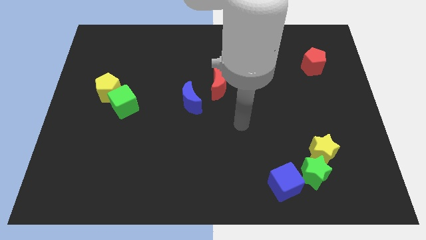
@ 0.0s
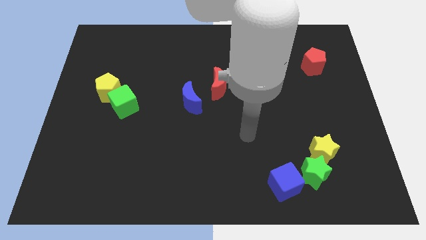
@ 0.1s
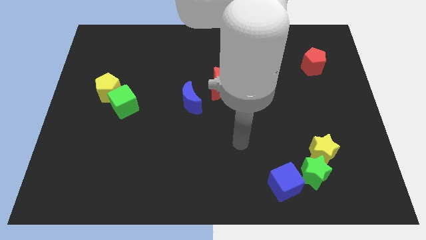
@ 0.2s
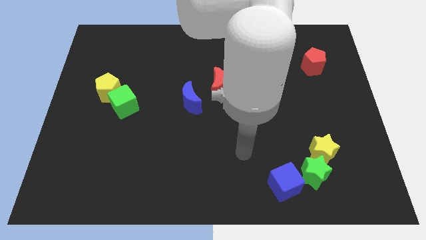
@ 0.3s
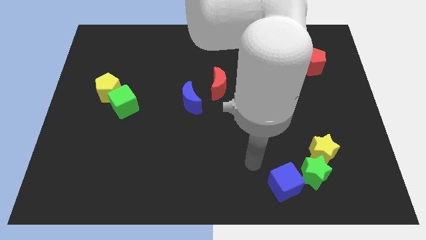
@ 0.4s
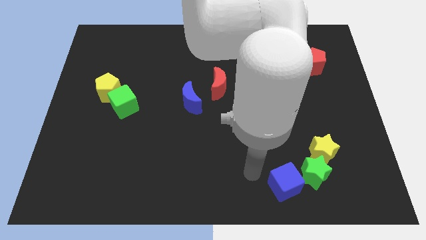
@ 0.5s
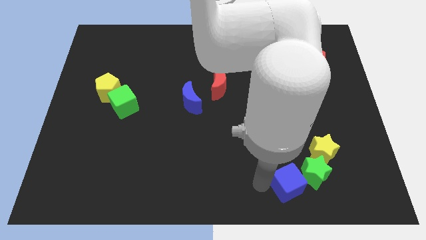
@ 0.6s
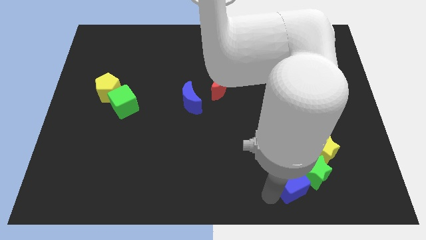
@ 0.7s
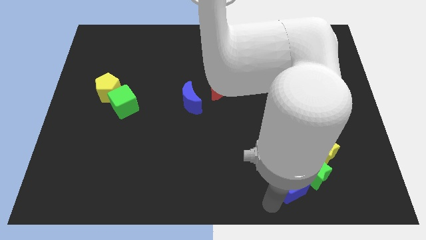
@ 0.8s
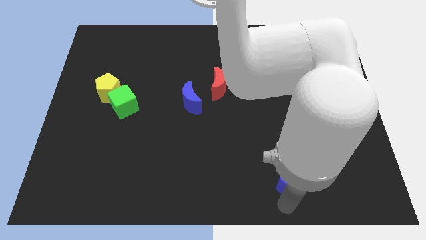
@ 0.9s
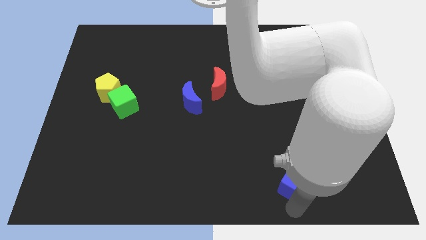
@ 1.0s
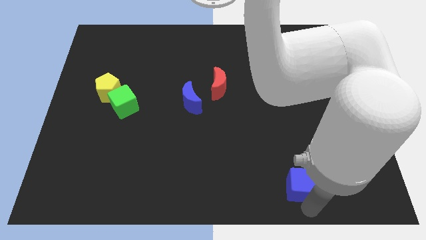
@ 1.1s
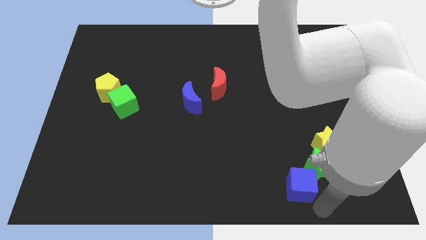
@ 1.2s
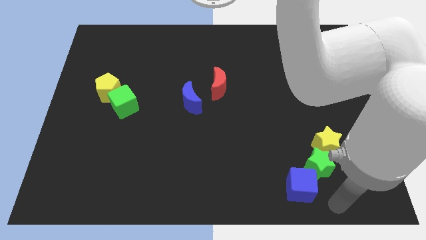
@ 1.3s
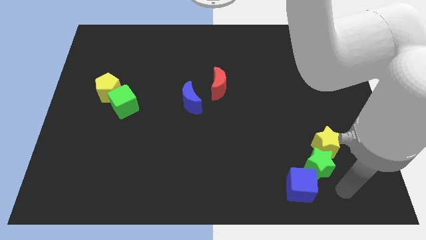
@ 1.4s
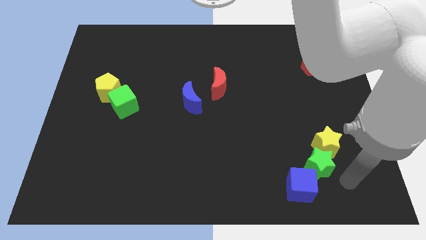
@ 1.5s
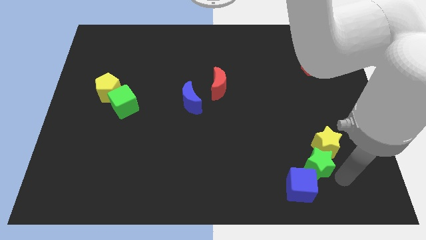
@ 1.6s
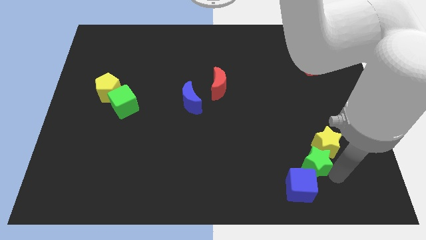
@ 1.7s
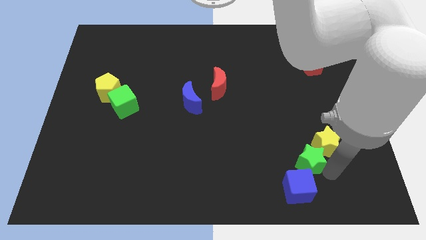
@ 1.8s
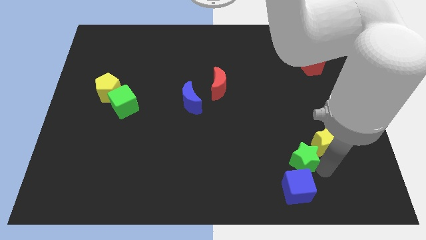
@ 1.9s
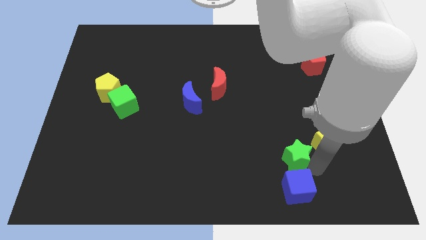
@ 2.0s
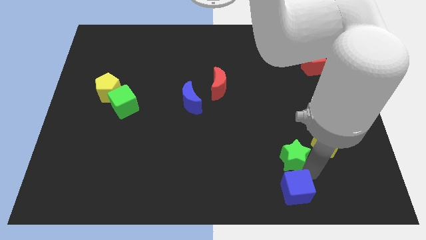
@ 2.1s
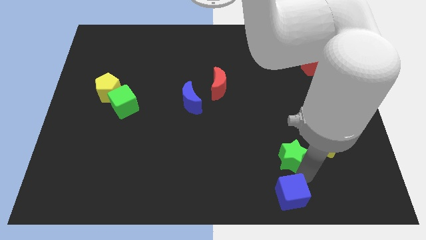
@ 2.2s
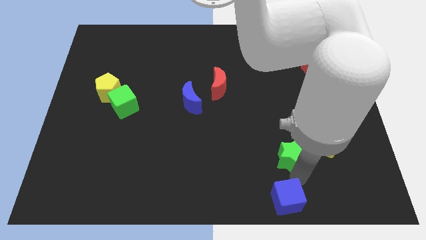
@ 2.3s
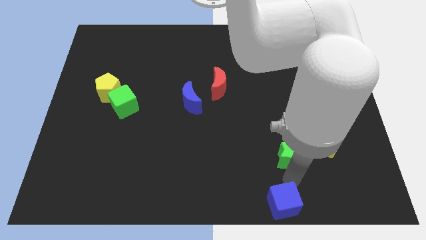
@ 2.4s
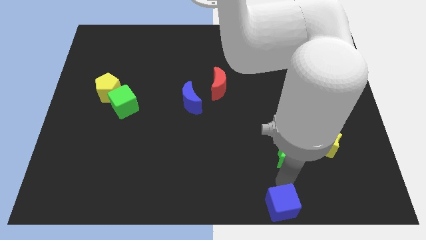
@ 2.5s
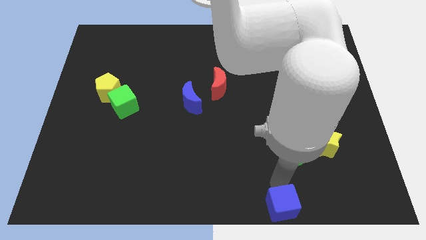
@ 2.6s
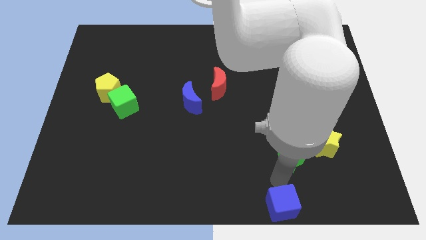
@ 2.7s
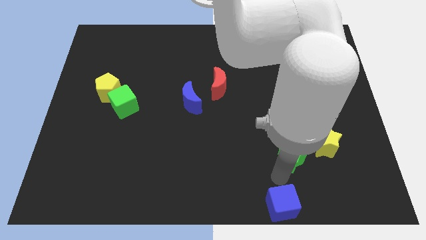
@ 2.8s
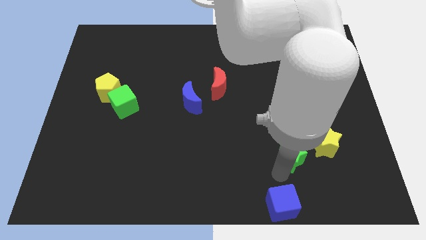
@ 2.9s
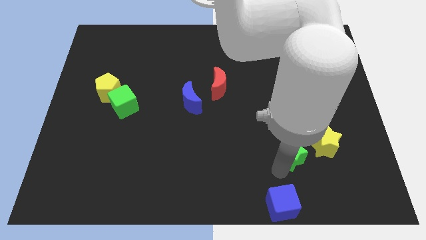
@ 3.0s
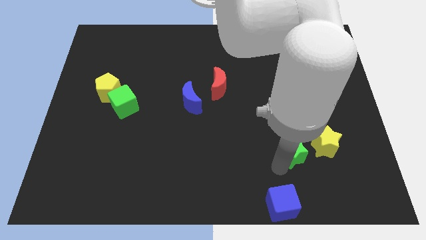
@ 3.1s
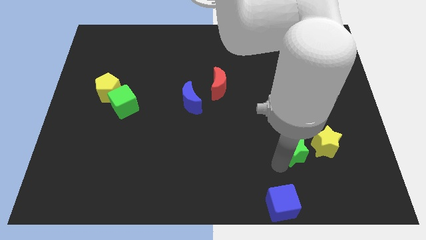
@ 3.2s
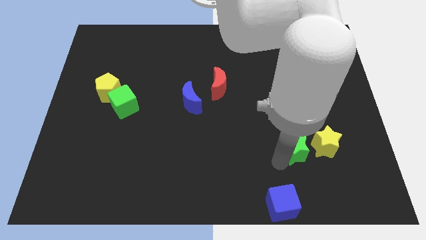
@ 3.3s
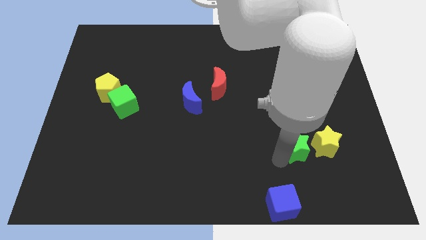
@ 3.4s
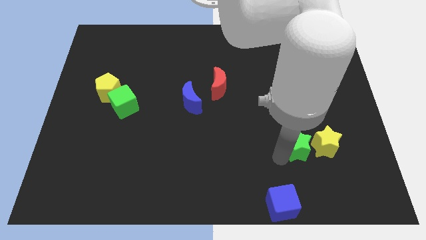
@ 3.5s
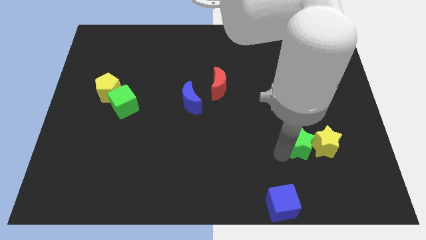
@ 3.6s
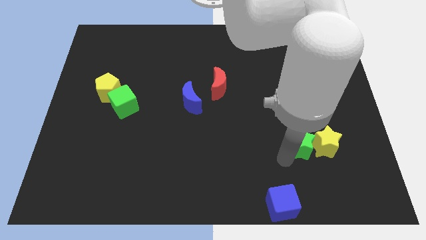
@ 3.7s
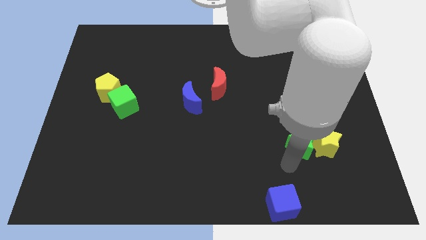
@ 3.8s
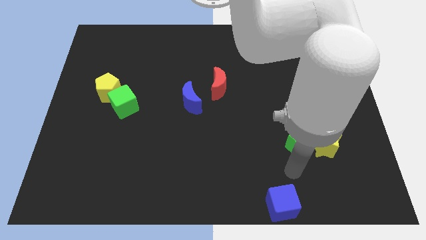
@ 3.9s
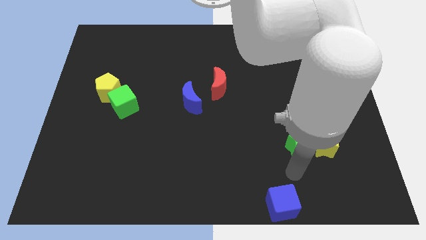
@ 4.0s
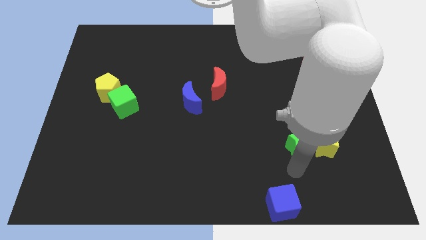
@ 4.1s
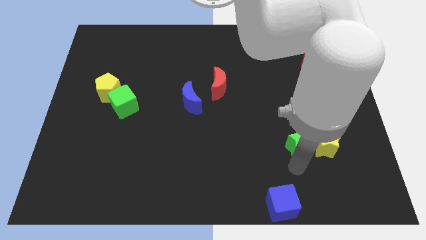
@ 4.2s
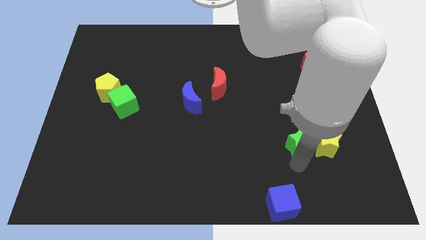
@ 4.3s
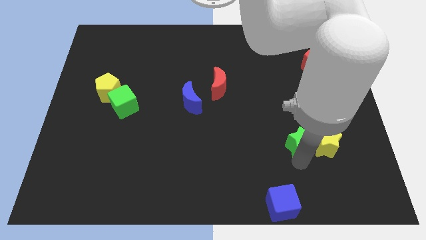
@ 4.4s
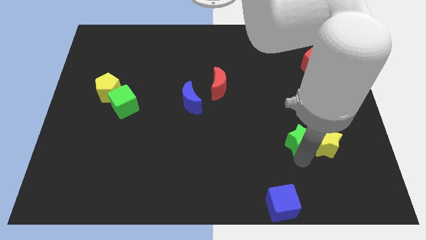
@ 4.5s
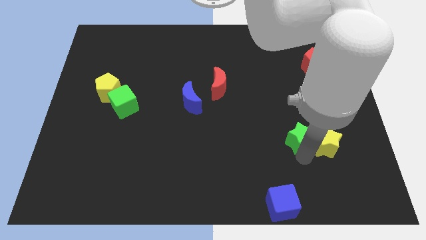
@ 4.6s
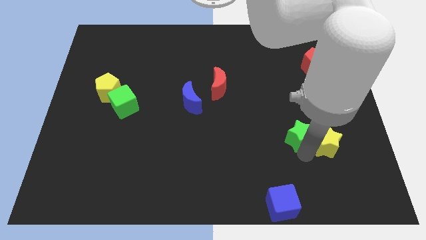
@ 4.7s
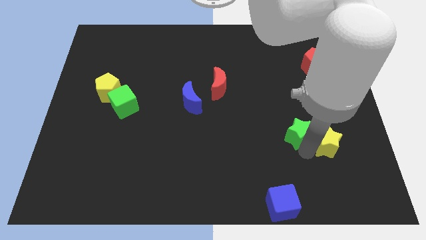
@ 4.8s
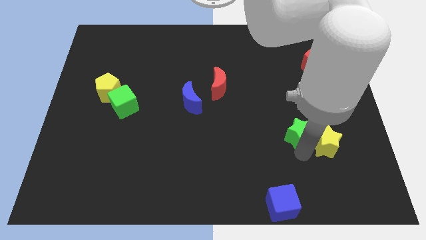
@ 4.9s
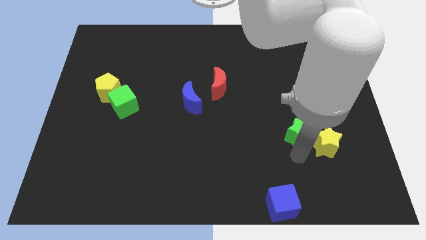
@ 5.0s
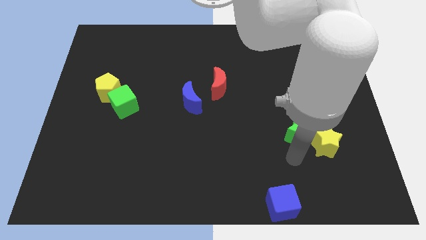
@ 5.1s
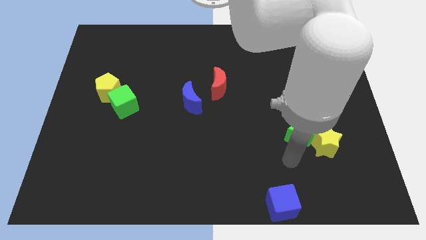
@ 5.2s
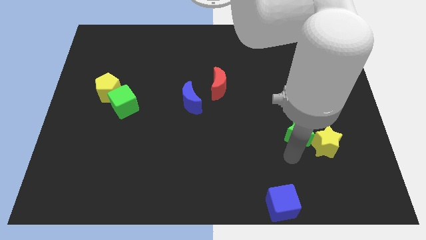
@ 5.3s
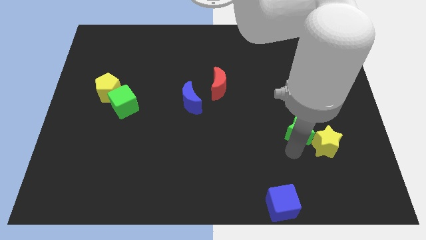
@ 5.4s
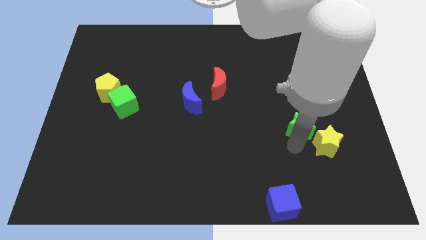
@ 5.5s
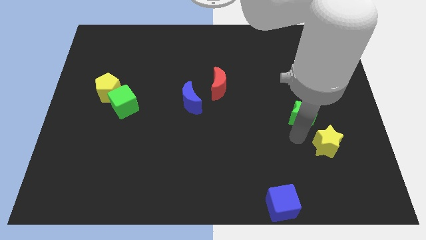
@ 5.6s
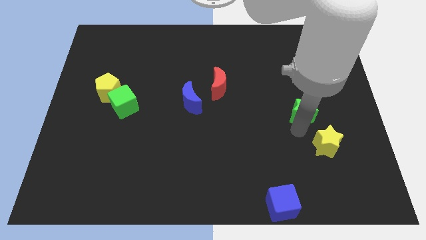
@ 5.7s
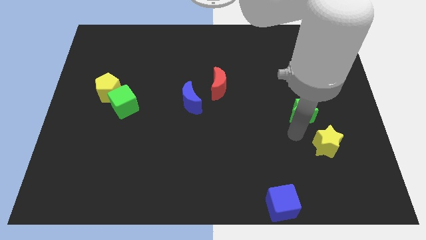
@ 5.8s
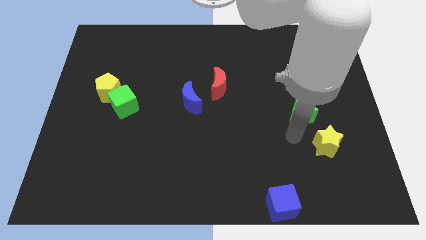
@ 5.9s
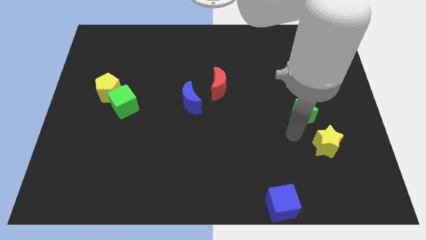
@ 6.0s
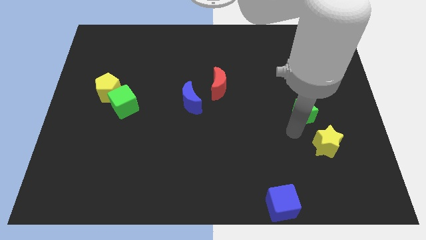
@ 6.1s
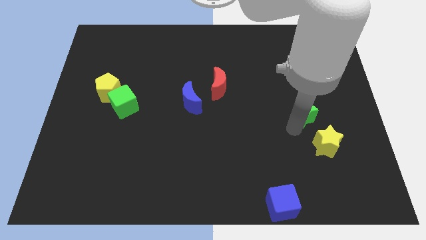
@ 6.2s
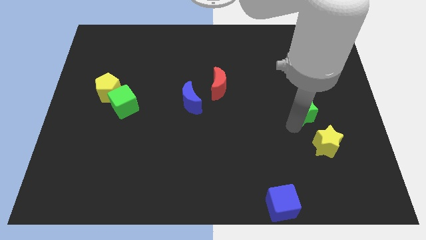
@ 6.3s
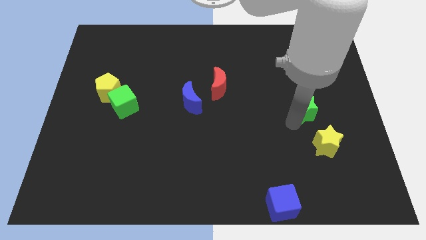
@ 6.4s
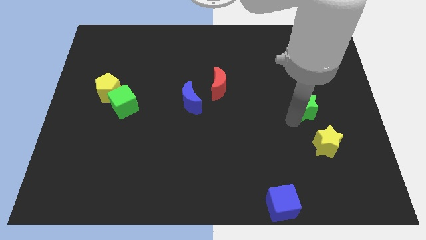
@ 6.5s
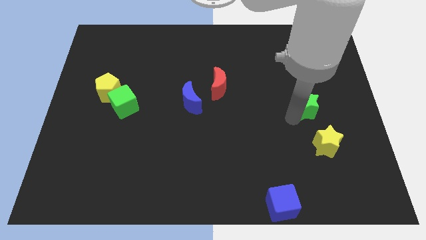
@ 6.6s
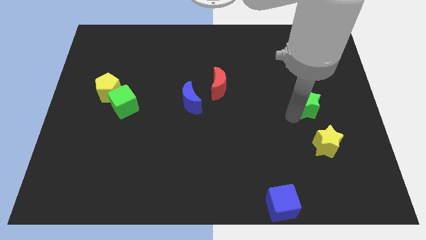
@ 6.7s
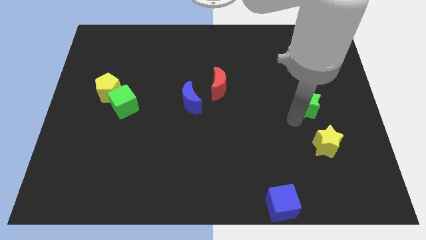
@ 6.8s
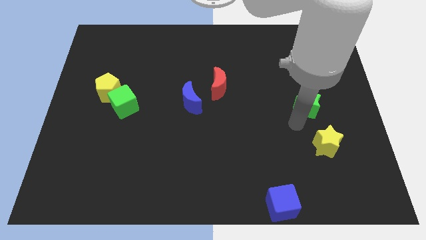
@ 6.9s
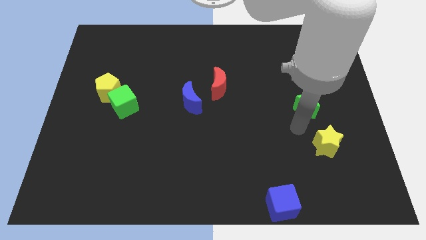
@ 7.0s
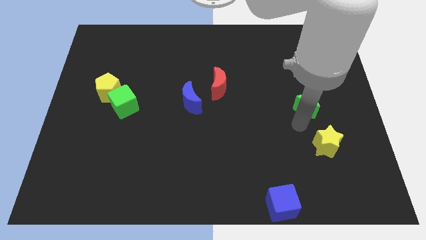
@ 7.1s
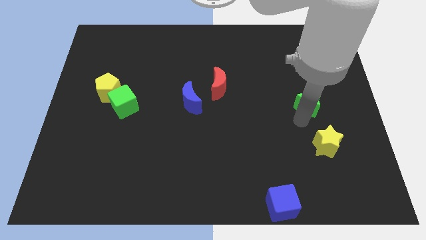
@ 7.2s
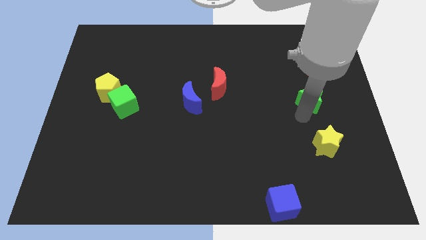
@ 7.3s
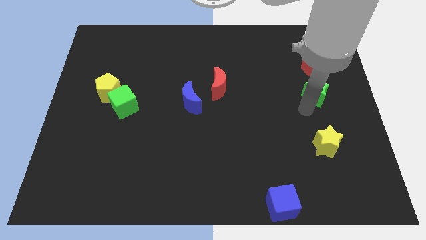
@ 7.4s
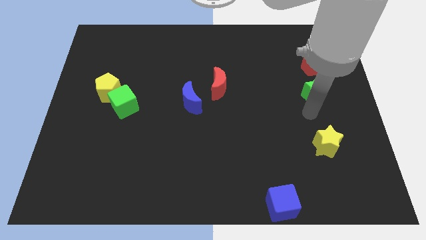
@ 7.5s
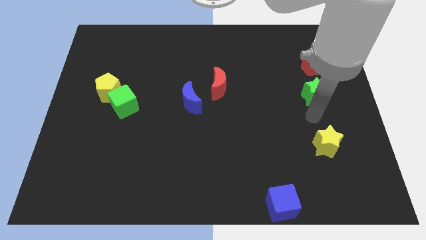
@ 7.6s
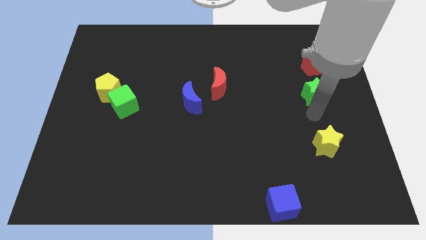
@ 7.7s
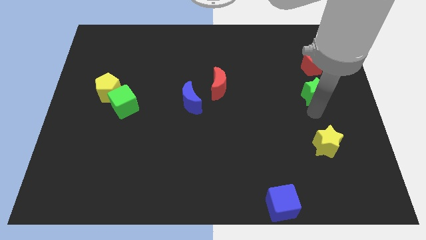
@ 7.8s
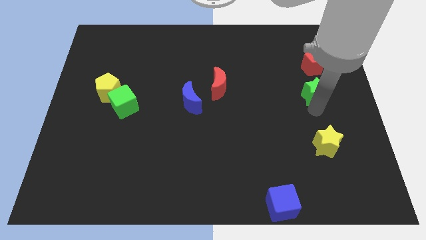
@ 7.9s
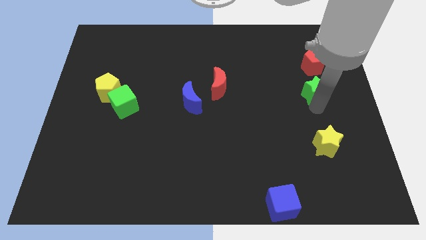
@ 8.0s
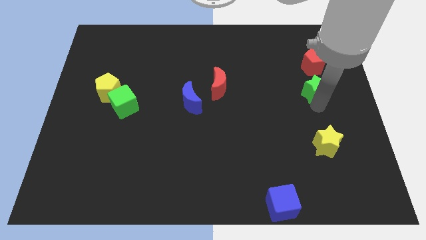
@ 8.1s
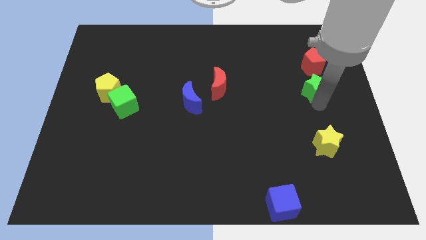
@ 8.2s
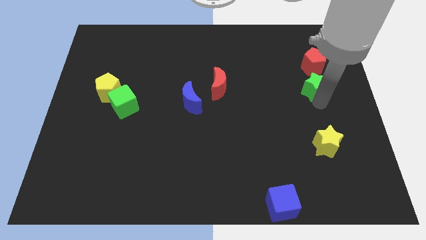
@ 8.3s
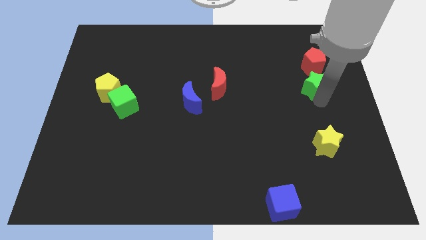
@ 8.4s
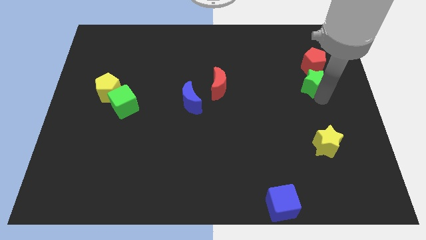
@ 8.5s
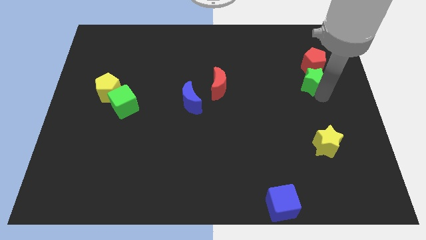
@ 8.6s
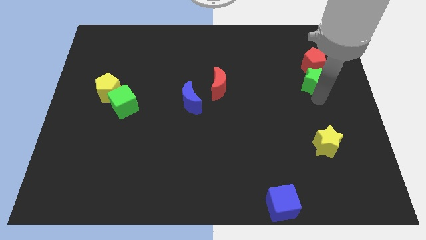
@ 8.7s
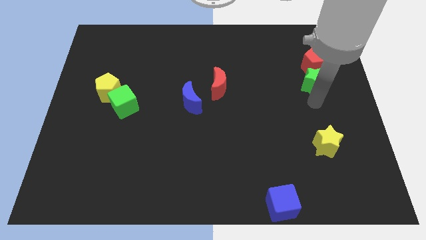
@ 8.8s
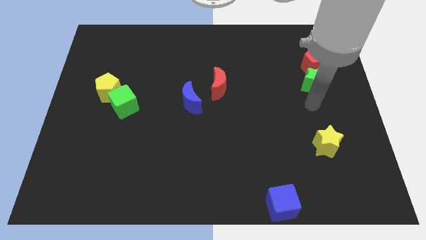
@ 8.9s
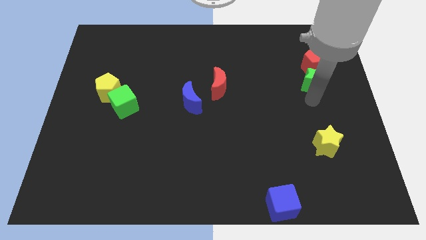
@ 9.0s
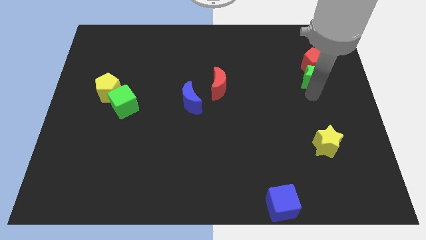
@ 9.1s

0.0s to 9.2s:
push the green star next to the red pentagon
